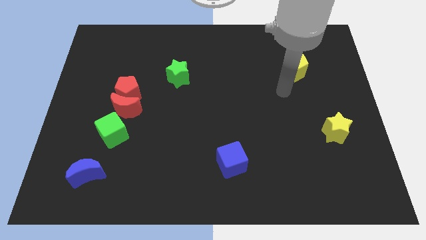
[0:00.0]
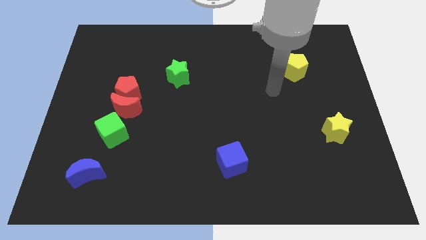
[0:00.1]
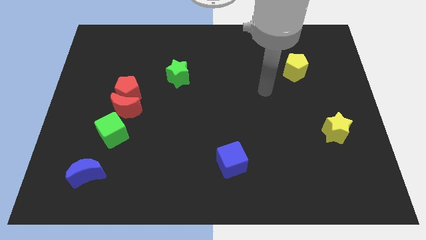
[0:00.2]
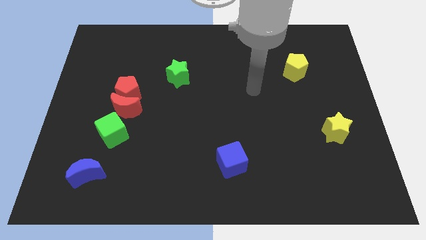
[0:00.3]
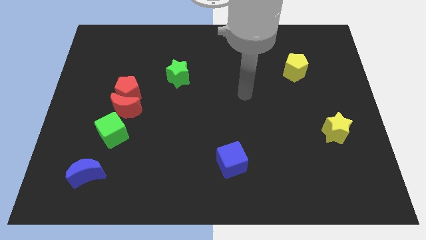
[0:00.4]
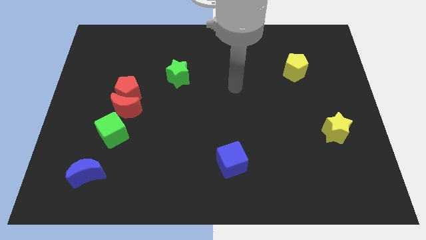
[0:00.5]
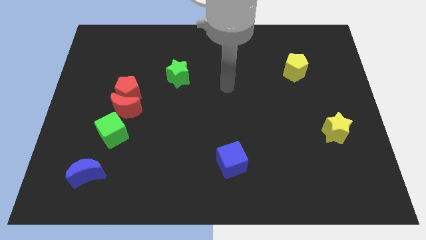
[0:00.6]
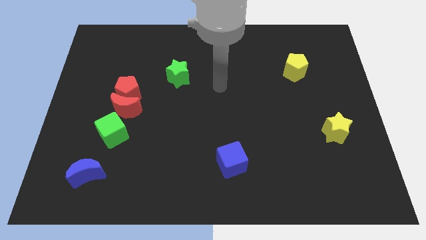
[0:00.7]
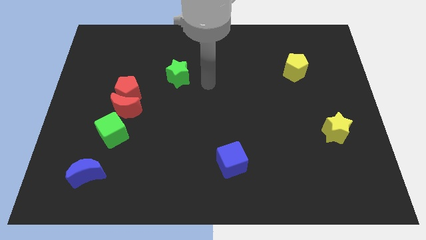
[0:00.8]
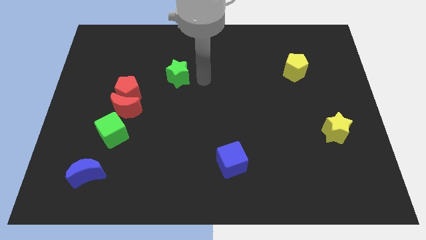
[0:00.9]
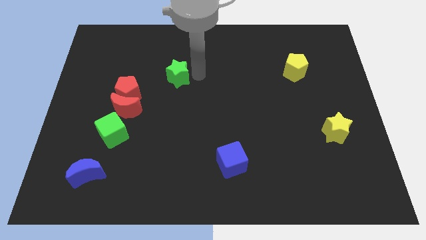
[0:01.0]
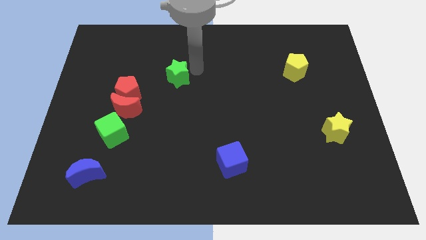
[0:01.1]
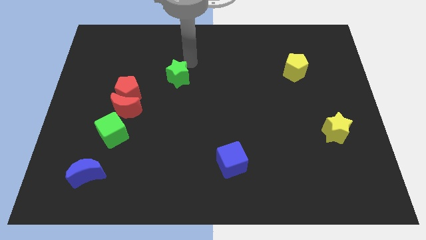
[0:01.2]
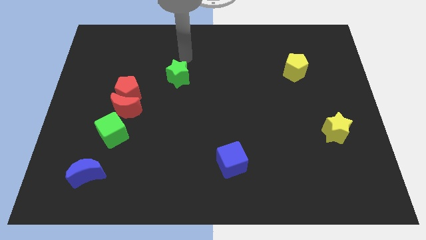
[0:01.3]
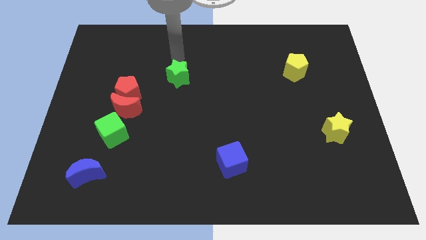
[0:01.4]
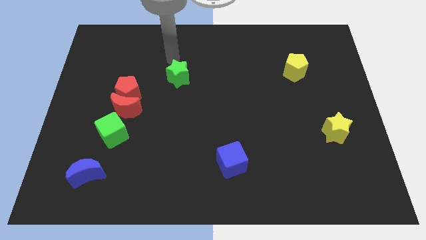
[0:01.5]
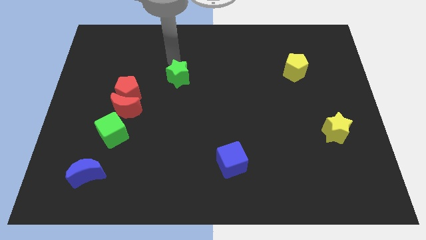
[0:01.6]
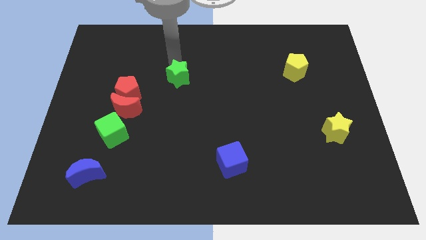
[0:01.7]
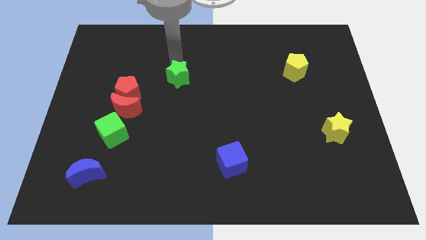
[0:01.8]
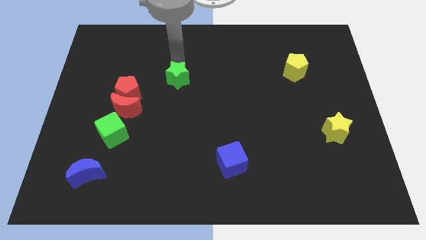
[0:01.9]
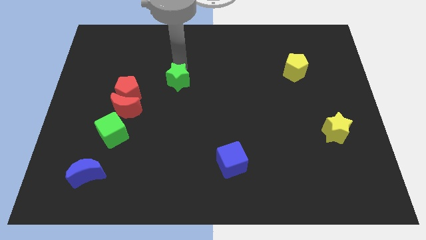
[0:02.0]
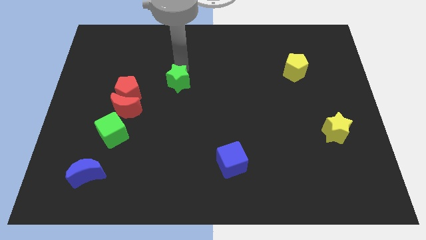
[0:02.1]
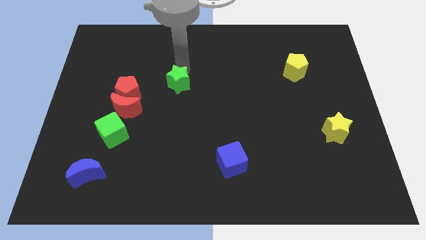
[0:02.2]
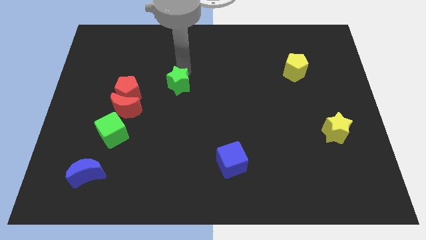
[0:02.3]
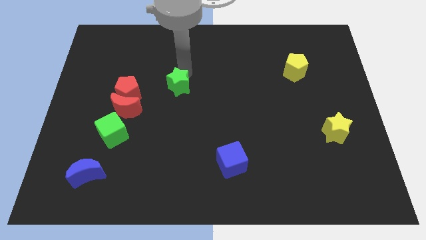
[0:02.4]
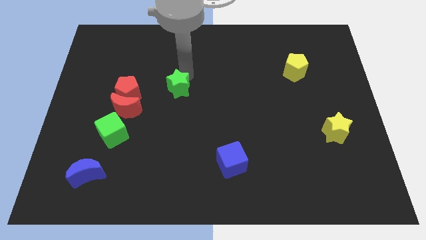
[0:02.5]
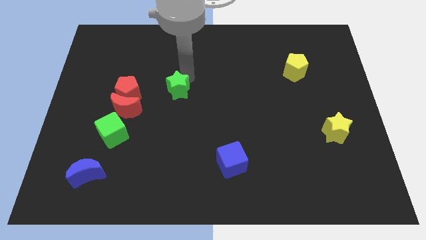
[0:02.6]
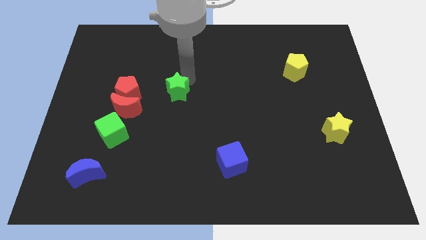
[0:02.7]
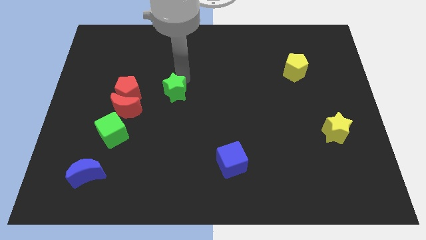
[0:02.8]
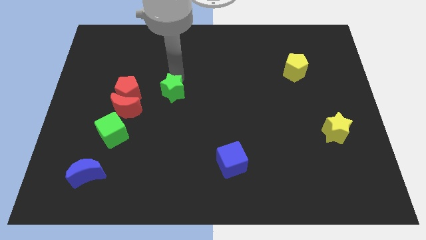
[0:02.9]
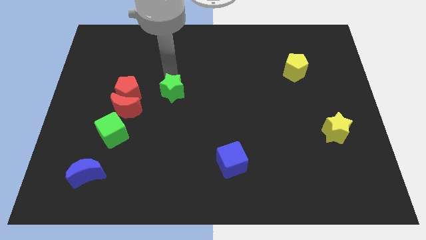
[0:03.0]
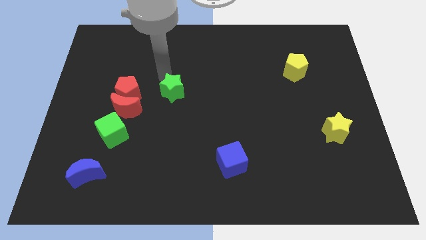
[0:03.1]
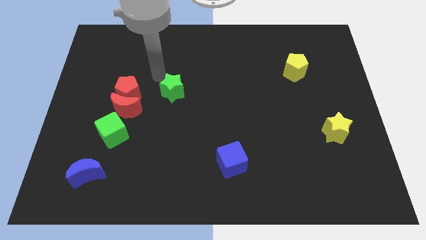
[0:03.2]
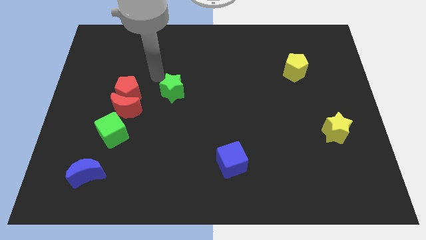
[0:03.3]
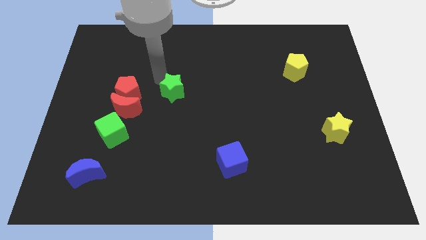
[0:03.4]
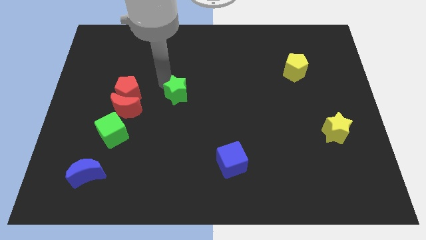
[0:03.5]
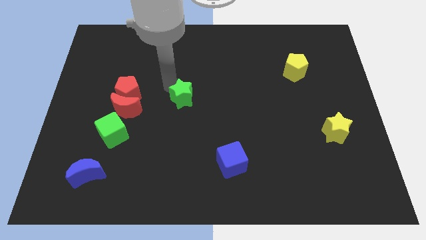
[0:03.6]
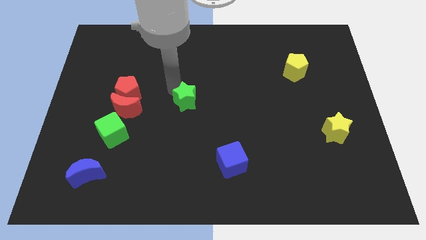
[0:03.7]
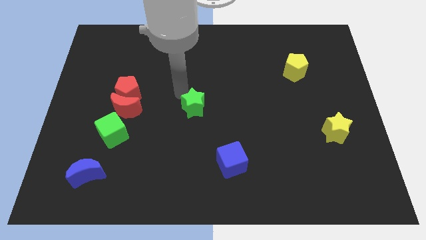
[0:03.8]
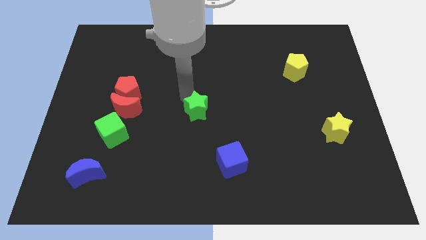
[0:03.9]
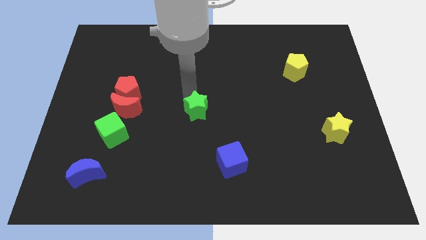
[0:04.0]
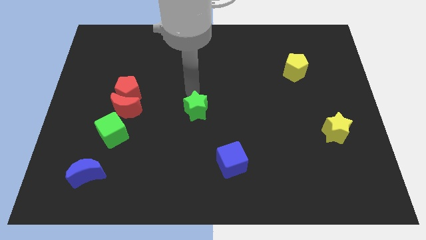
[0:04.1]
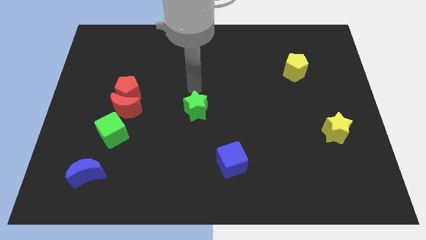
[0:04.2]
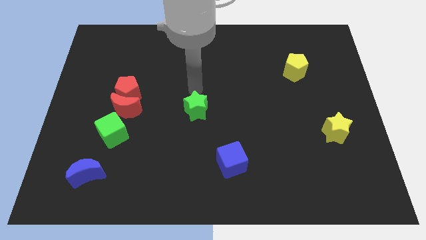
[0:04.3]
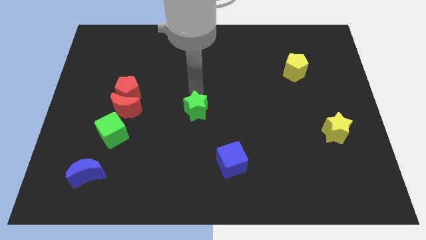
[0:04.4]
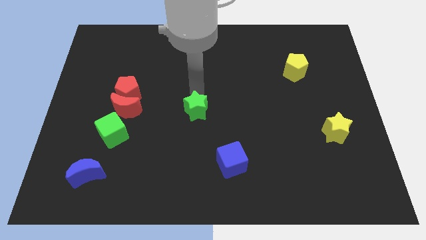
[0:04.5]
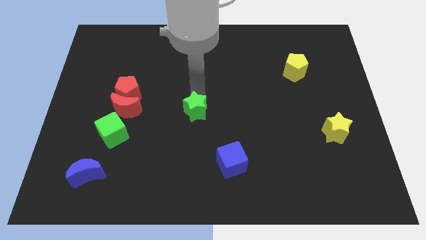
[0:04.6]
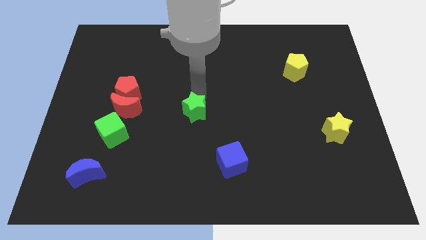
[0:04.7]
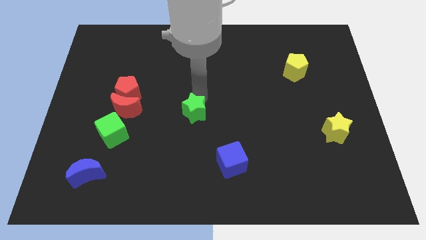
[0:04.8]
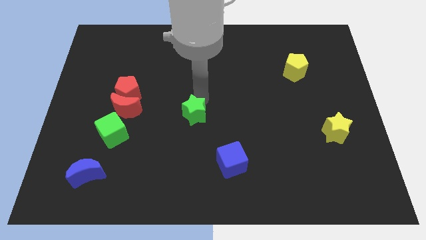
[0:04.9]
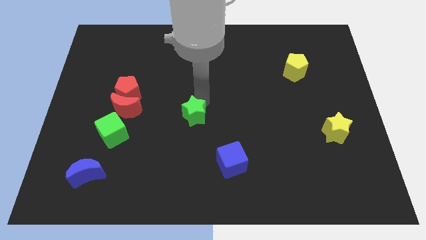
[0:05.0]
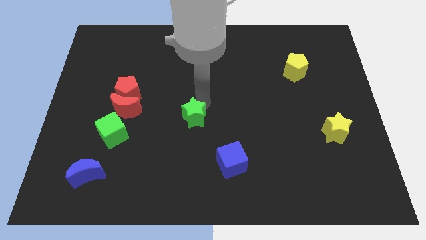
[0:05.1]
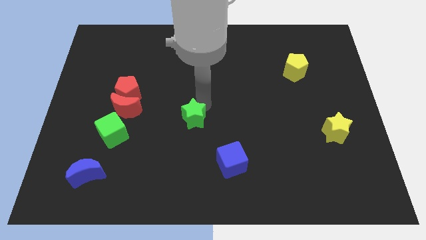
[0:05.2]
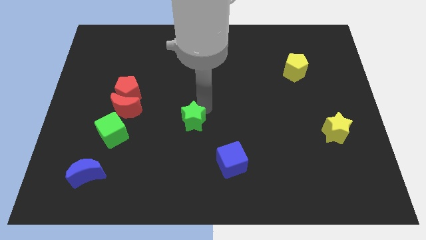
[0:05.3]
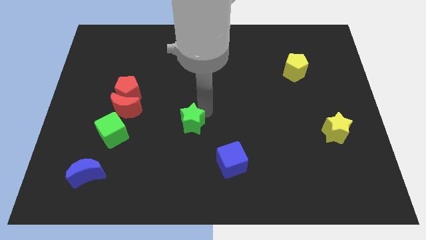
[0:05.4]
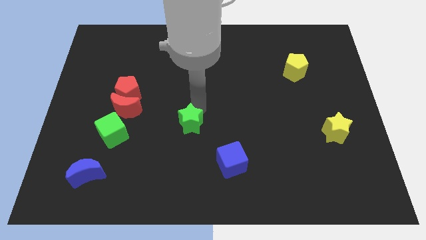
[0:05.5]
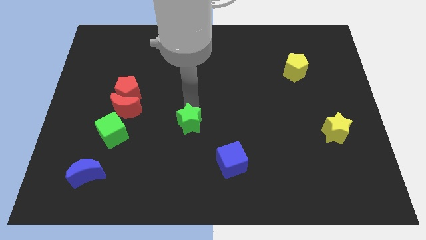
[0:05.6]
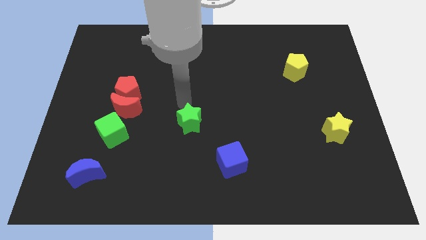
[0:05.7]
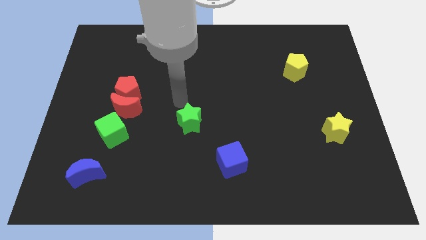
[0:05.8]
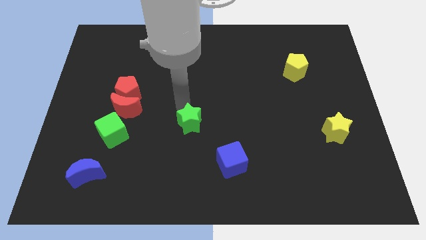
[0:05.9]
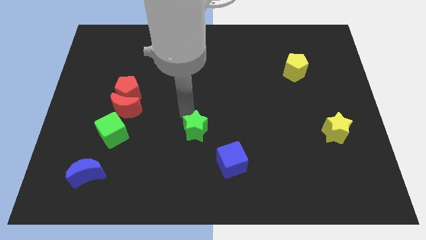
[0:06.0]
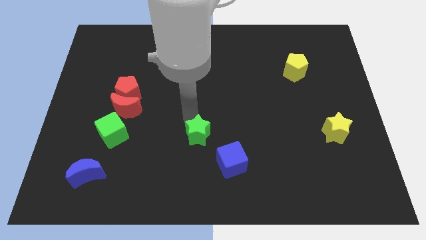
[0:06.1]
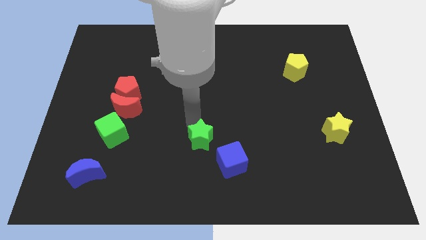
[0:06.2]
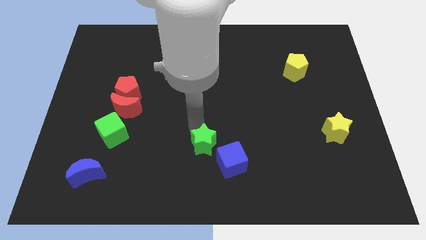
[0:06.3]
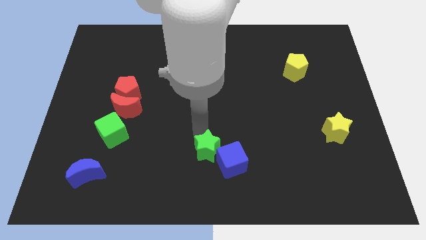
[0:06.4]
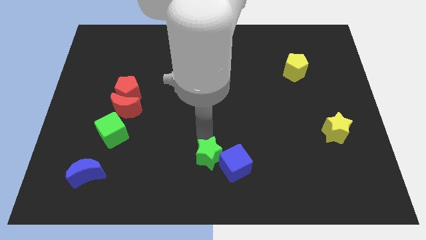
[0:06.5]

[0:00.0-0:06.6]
push the green star to the bottom
